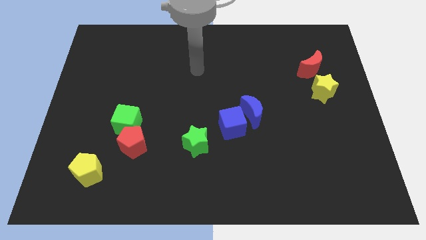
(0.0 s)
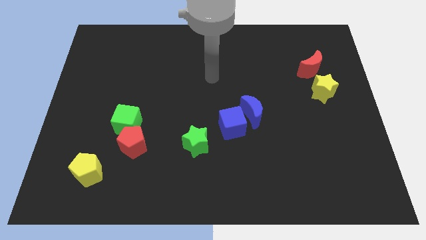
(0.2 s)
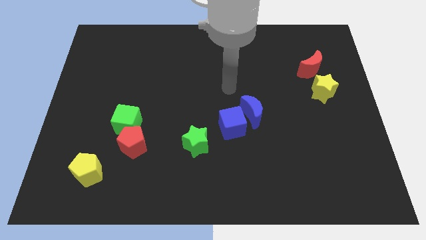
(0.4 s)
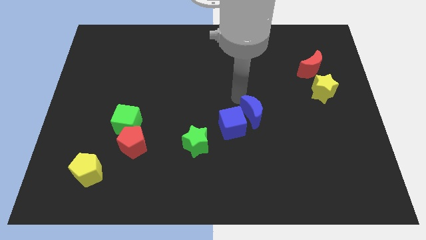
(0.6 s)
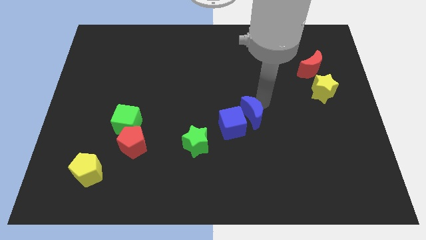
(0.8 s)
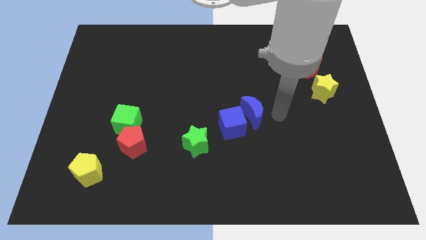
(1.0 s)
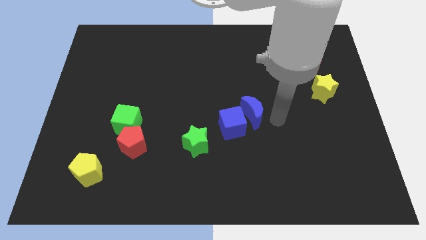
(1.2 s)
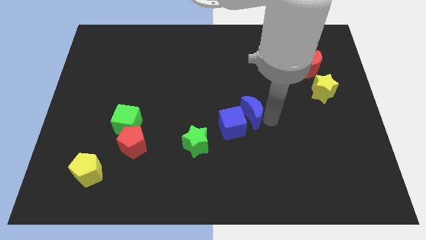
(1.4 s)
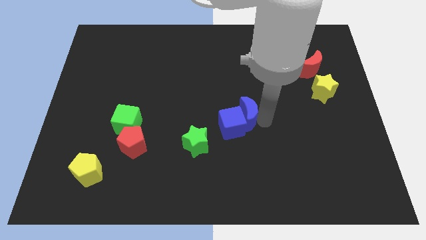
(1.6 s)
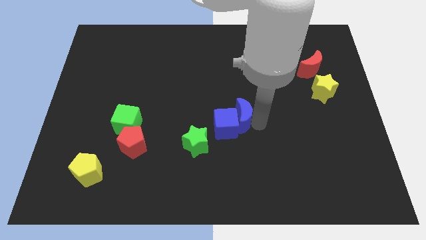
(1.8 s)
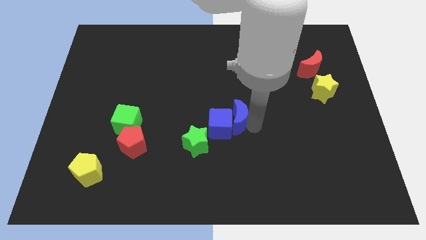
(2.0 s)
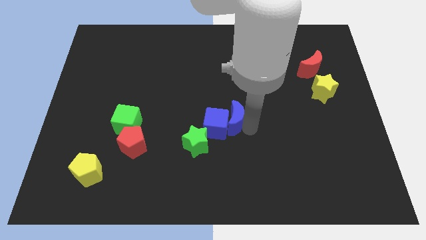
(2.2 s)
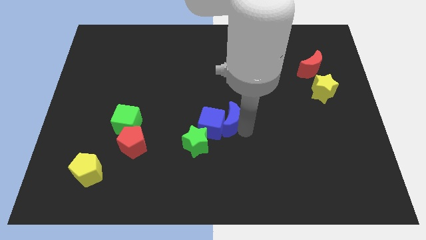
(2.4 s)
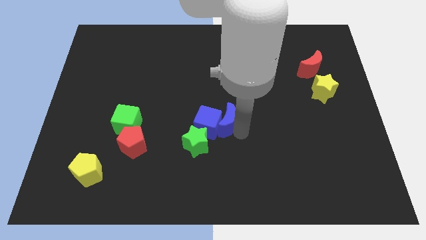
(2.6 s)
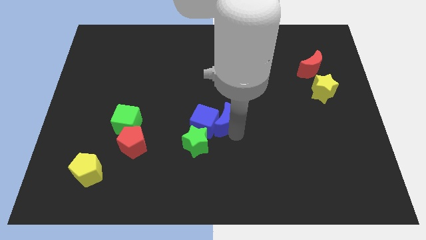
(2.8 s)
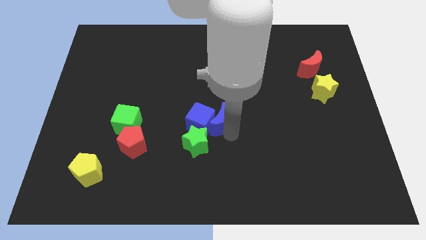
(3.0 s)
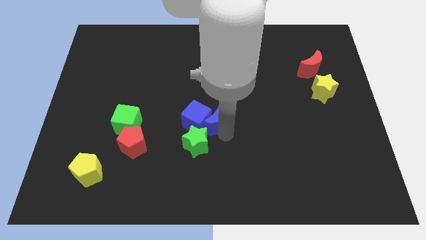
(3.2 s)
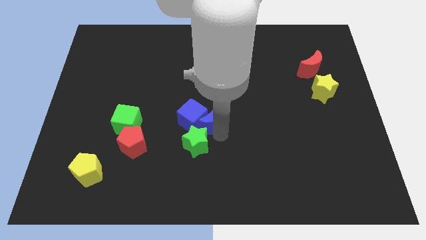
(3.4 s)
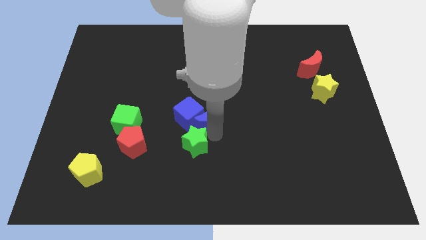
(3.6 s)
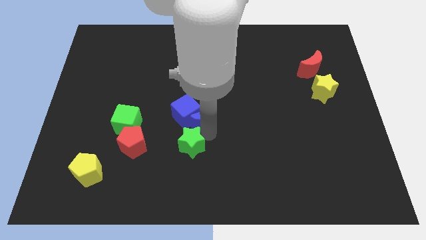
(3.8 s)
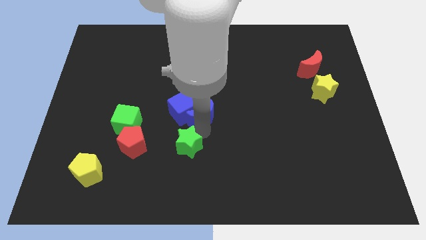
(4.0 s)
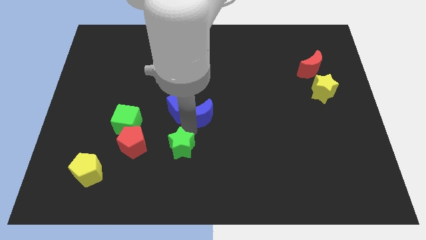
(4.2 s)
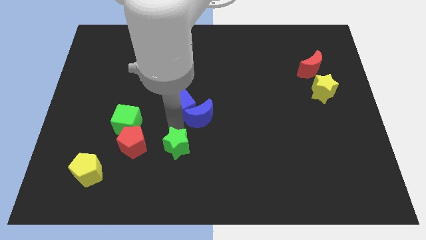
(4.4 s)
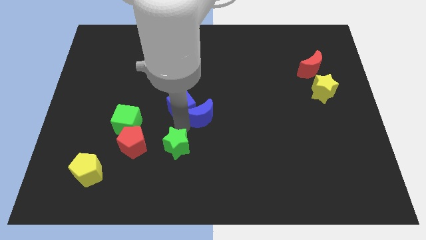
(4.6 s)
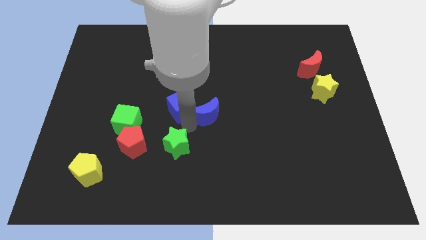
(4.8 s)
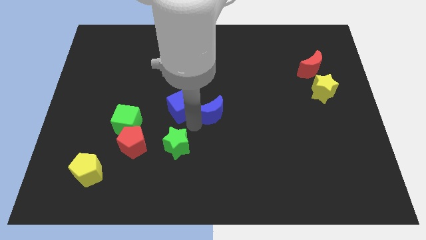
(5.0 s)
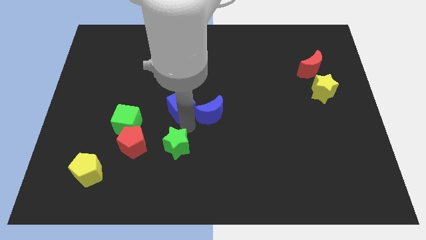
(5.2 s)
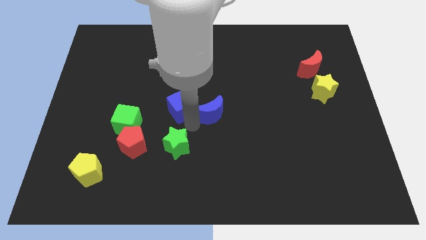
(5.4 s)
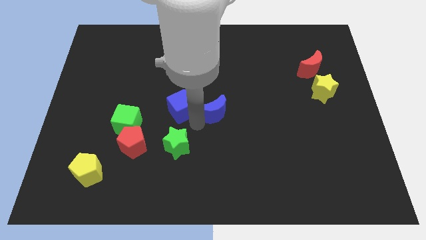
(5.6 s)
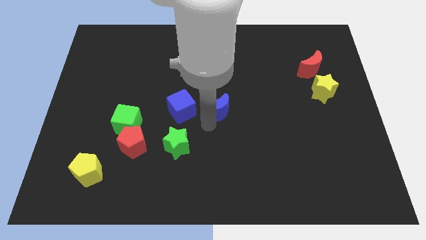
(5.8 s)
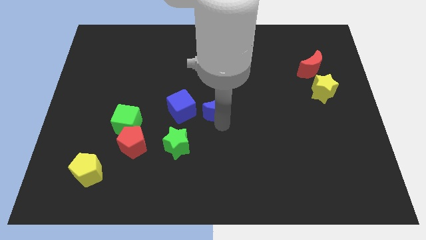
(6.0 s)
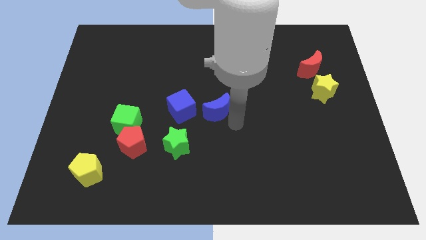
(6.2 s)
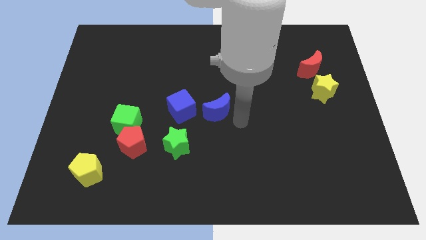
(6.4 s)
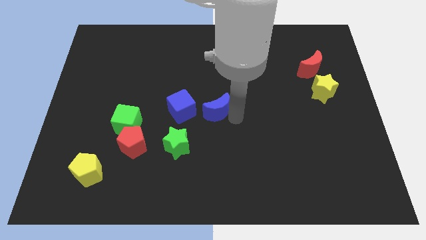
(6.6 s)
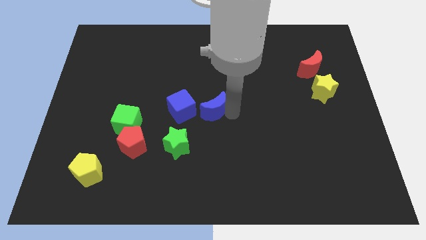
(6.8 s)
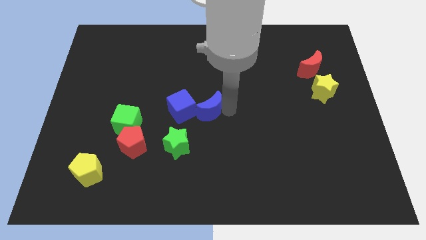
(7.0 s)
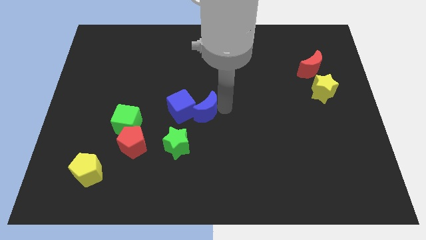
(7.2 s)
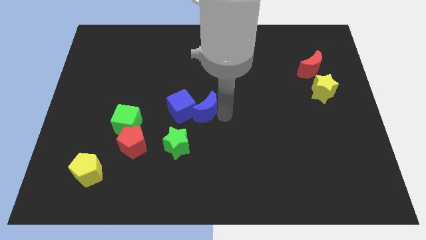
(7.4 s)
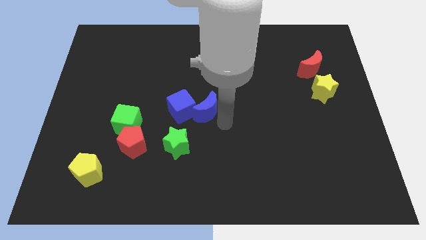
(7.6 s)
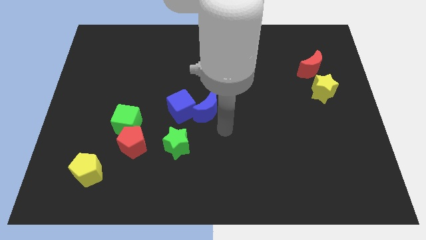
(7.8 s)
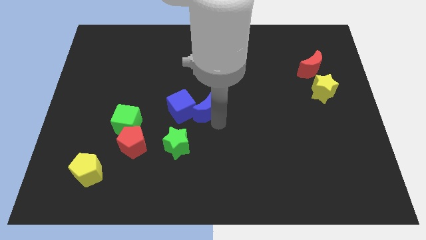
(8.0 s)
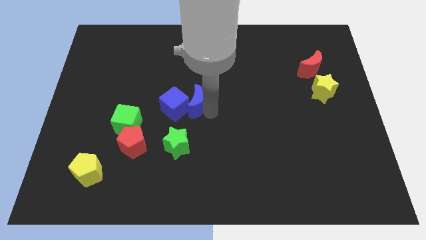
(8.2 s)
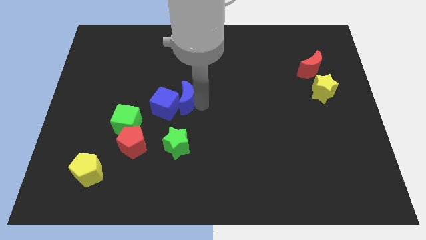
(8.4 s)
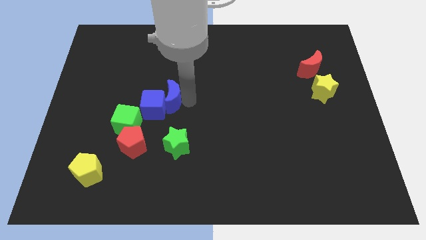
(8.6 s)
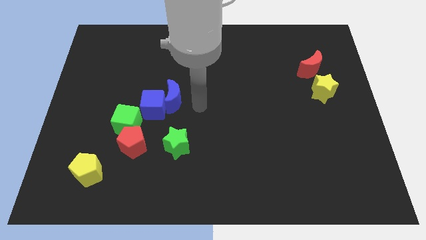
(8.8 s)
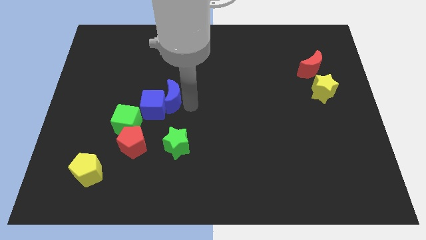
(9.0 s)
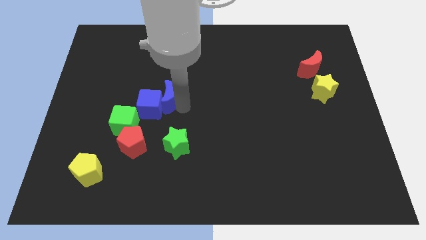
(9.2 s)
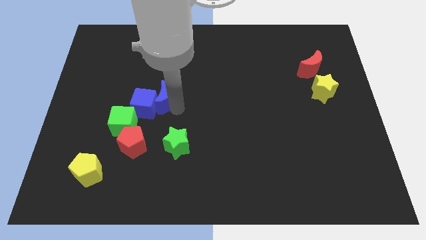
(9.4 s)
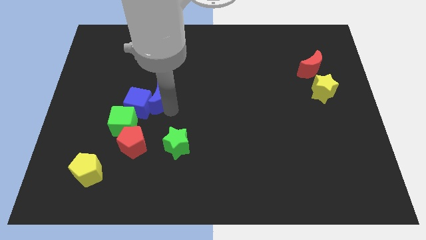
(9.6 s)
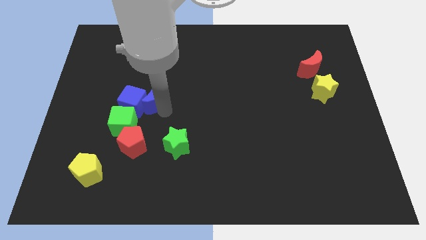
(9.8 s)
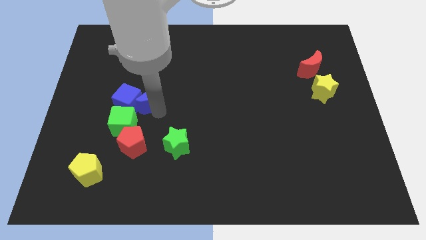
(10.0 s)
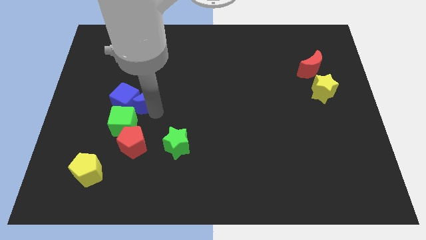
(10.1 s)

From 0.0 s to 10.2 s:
push the blue moon to the top side of the green cube

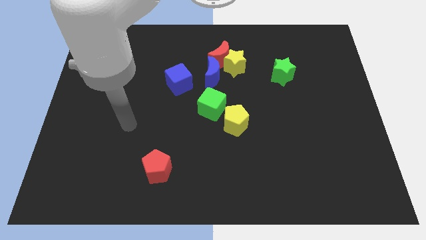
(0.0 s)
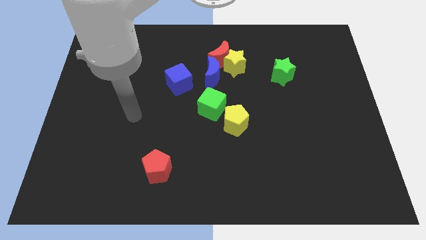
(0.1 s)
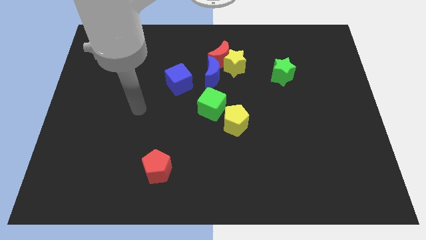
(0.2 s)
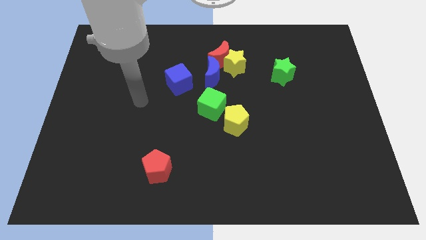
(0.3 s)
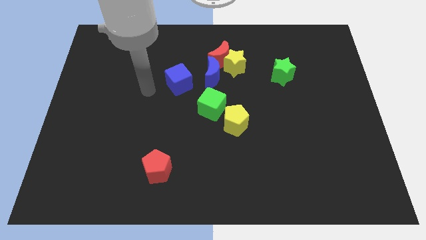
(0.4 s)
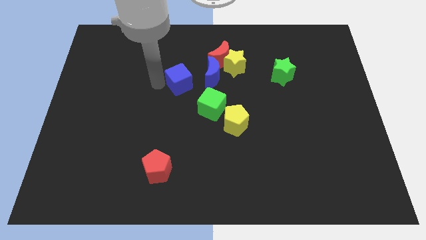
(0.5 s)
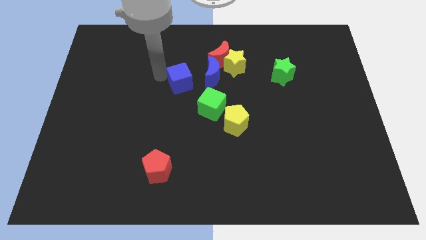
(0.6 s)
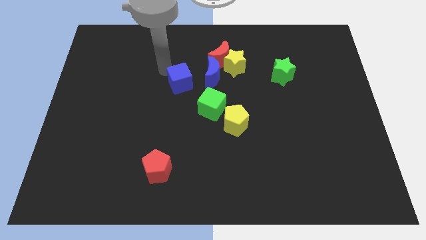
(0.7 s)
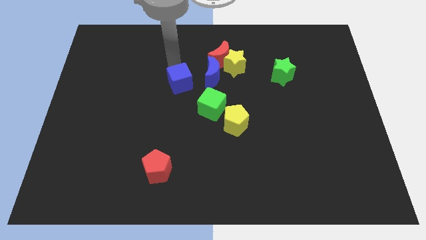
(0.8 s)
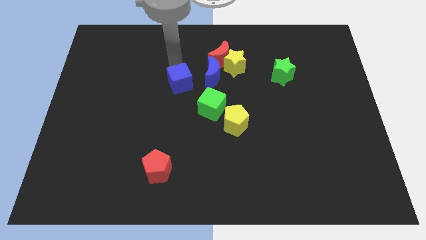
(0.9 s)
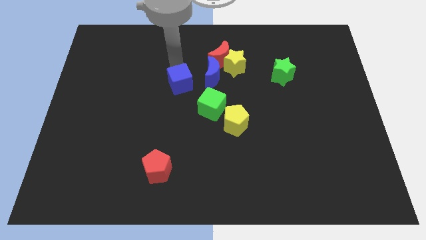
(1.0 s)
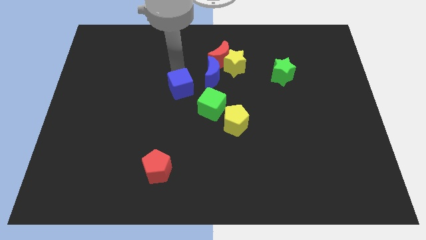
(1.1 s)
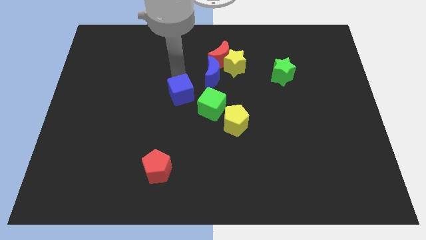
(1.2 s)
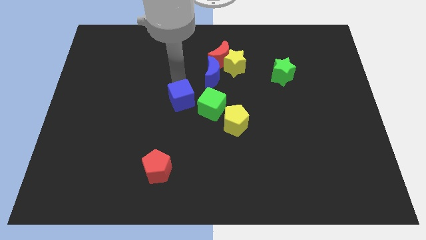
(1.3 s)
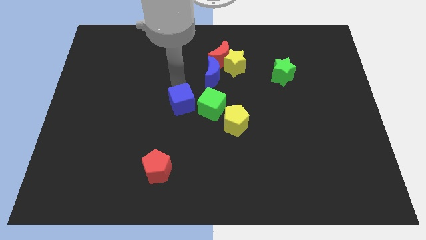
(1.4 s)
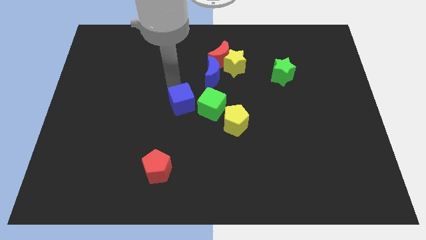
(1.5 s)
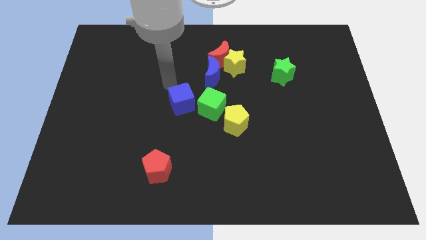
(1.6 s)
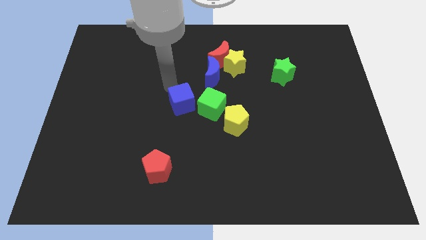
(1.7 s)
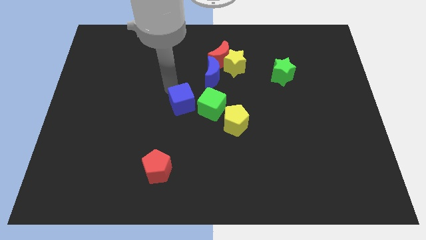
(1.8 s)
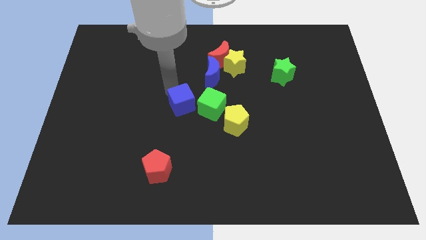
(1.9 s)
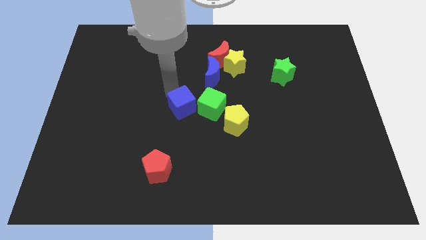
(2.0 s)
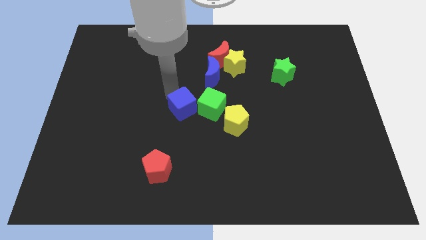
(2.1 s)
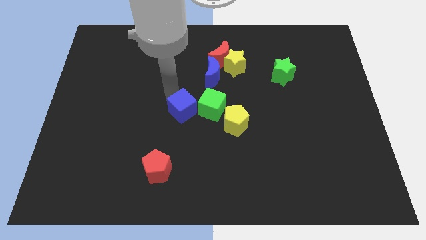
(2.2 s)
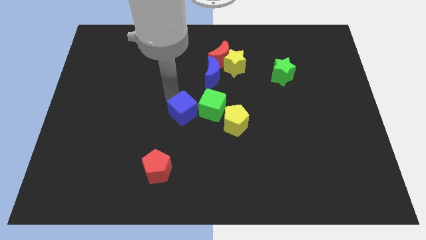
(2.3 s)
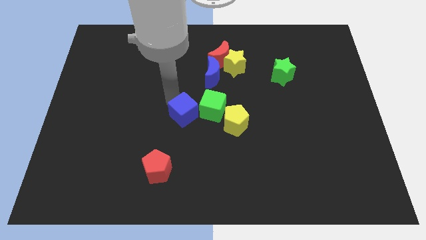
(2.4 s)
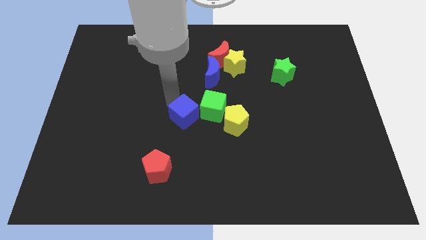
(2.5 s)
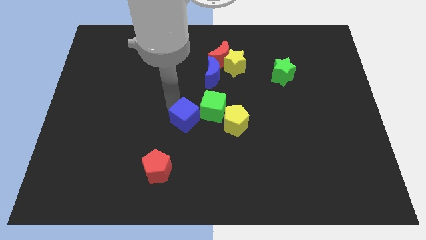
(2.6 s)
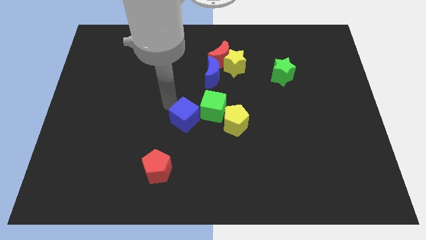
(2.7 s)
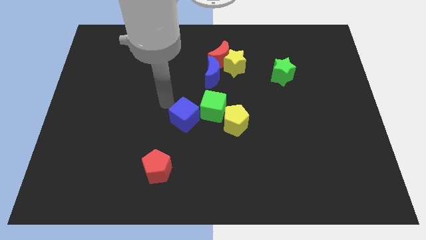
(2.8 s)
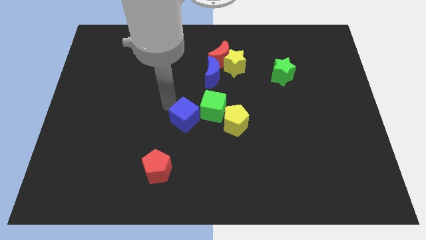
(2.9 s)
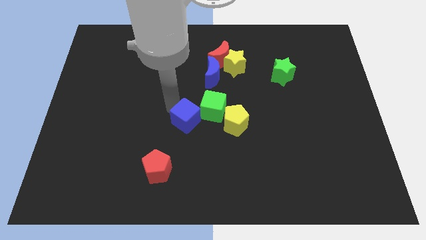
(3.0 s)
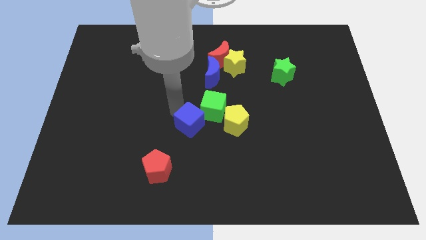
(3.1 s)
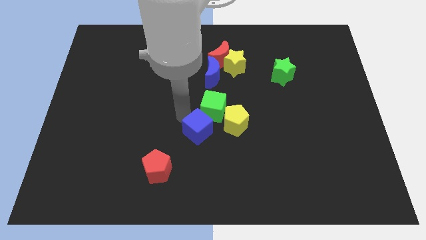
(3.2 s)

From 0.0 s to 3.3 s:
put the blue cube to the bottom of the green cube
